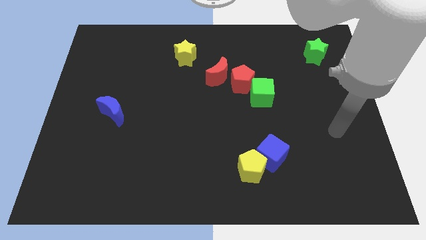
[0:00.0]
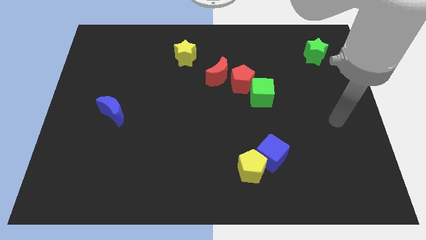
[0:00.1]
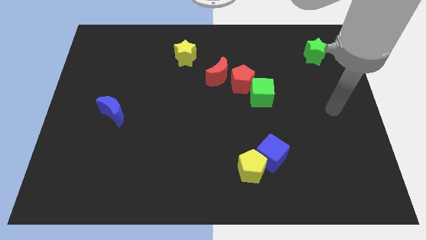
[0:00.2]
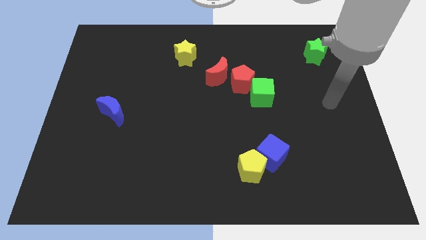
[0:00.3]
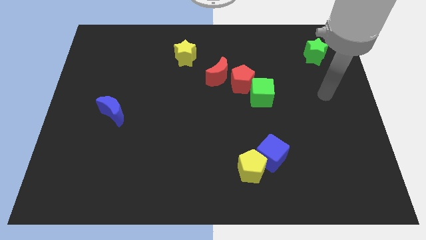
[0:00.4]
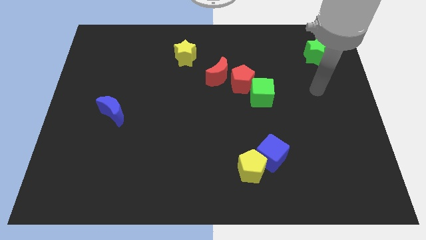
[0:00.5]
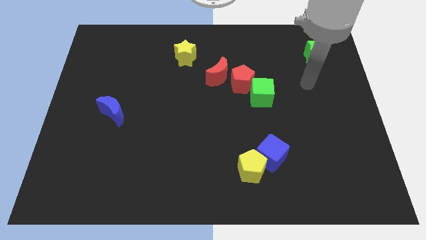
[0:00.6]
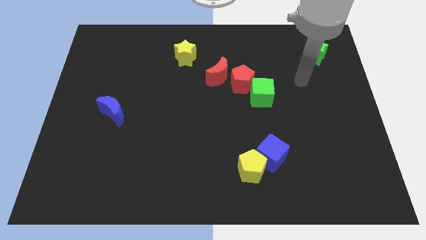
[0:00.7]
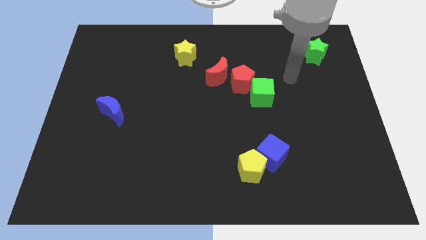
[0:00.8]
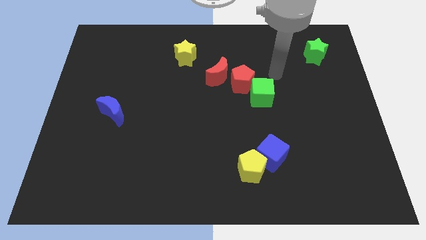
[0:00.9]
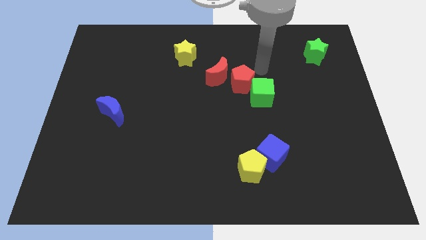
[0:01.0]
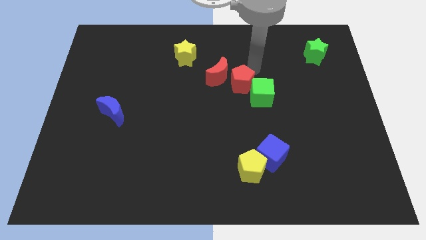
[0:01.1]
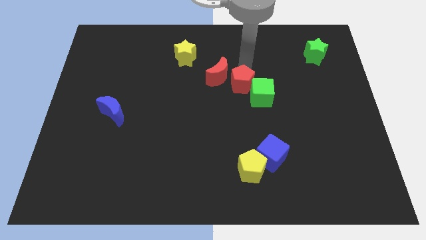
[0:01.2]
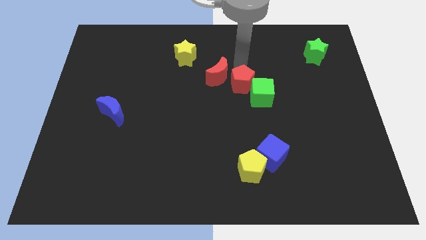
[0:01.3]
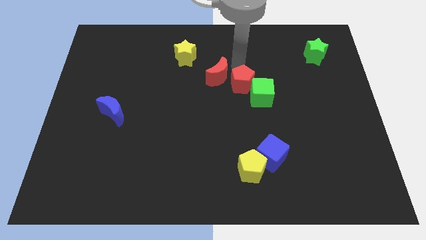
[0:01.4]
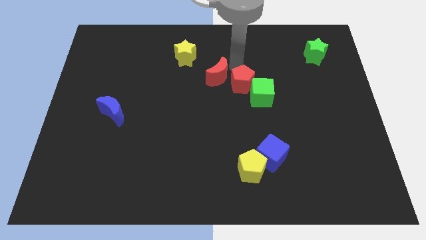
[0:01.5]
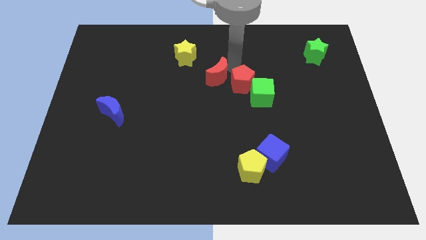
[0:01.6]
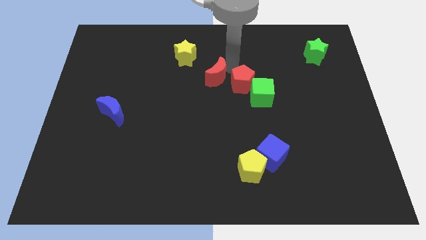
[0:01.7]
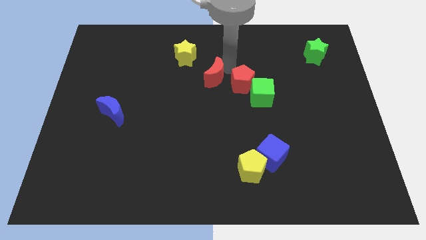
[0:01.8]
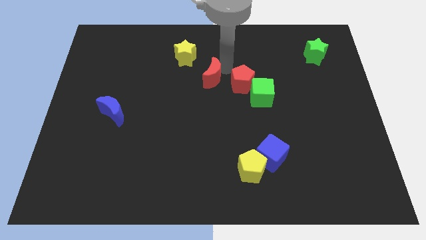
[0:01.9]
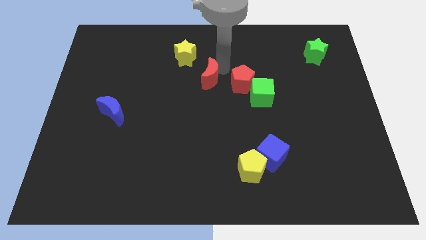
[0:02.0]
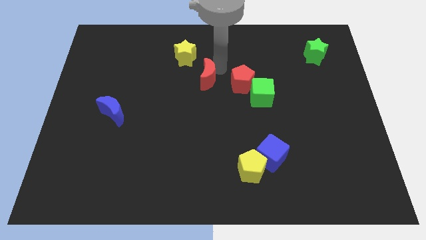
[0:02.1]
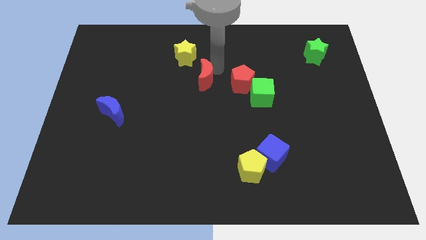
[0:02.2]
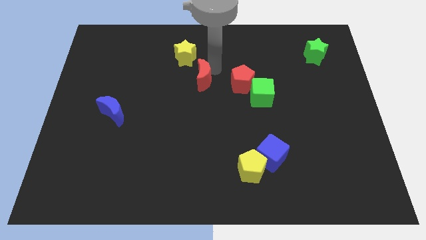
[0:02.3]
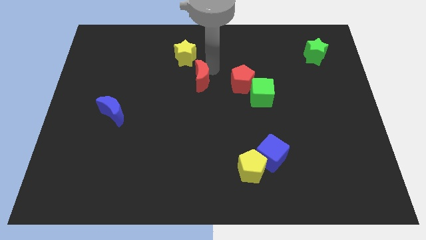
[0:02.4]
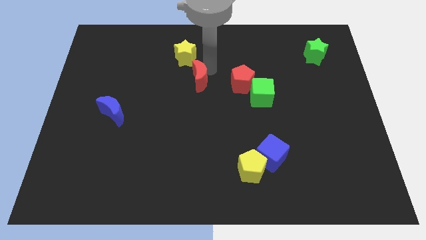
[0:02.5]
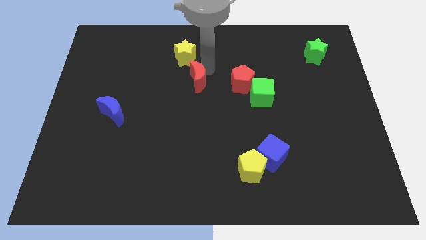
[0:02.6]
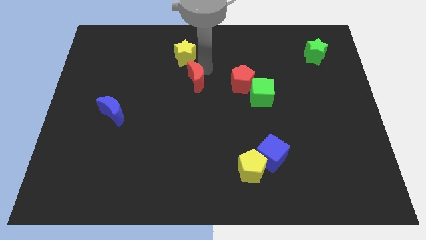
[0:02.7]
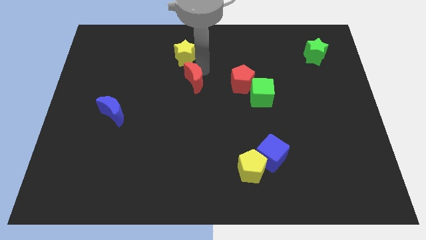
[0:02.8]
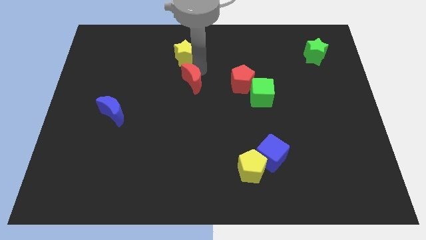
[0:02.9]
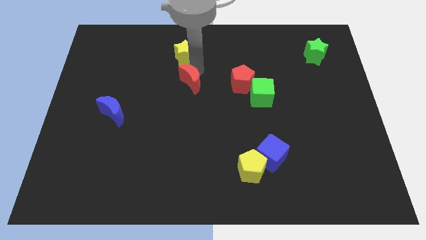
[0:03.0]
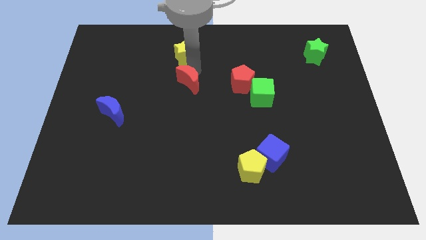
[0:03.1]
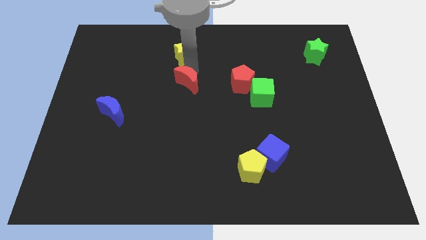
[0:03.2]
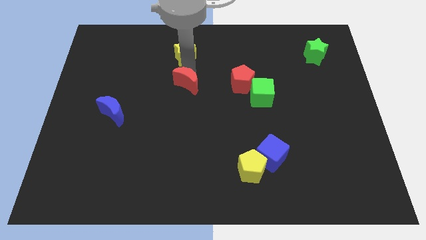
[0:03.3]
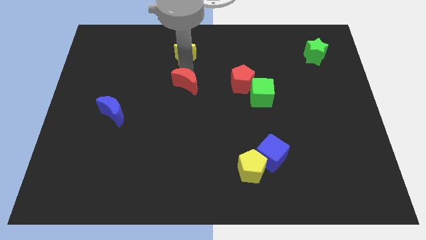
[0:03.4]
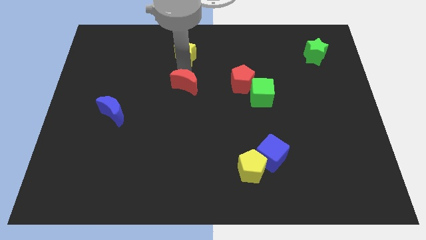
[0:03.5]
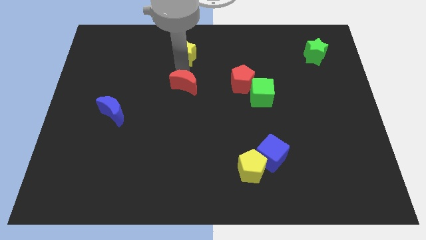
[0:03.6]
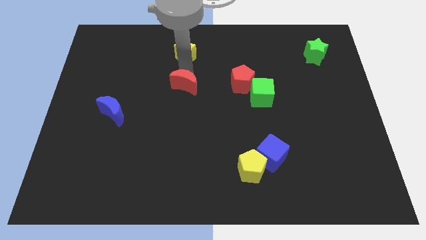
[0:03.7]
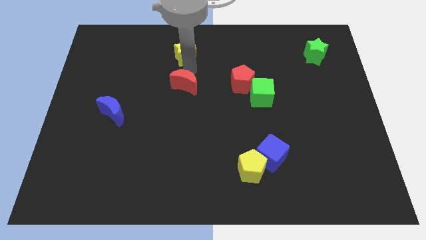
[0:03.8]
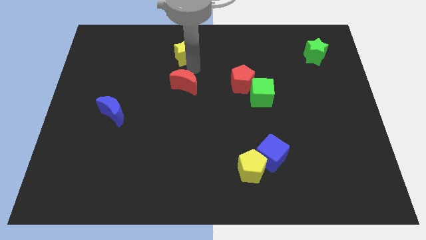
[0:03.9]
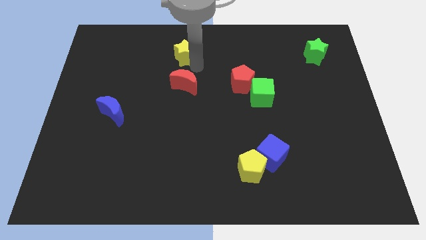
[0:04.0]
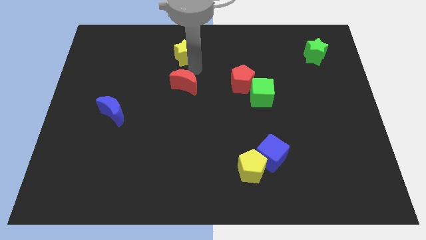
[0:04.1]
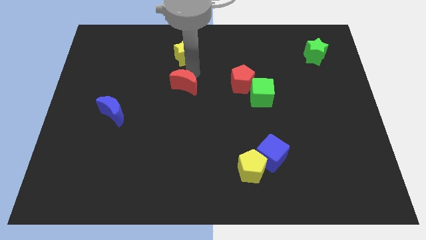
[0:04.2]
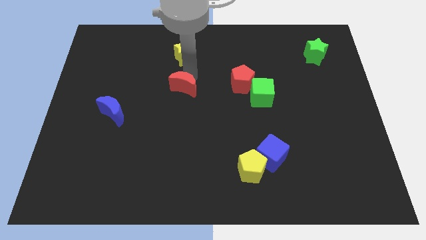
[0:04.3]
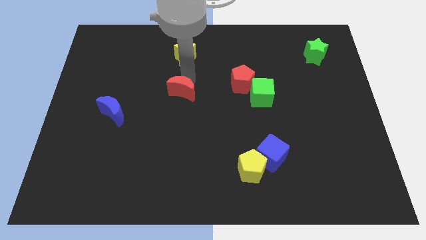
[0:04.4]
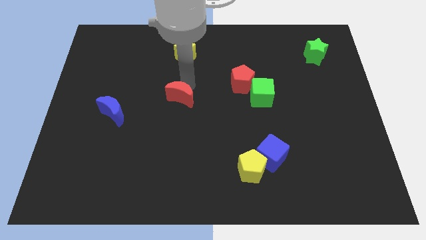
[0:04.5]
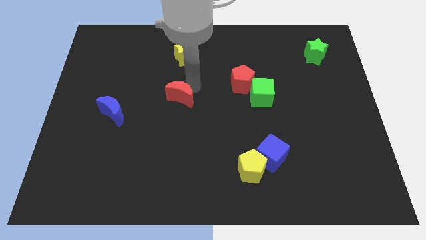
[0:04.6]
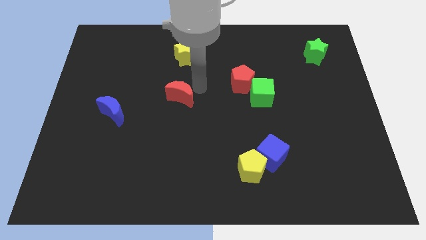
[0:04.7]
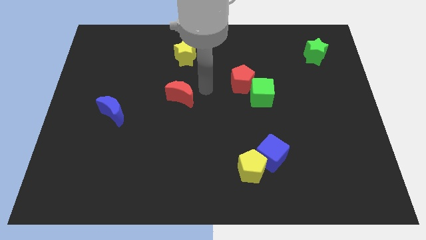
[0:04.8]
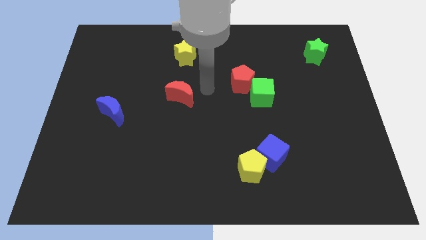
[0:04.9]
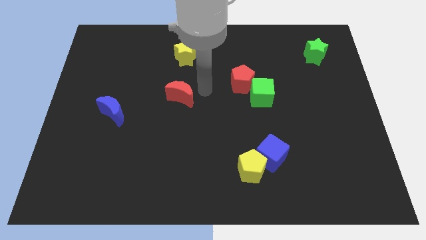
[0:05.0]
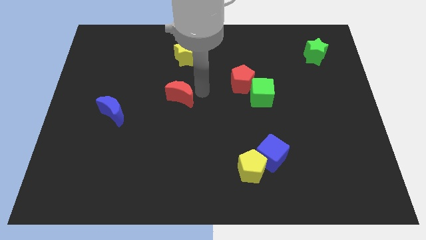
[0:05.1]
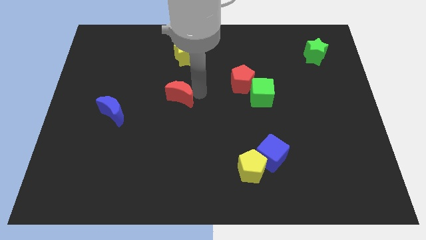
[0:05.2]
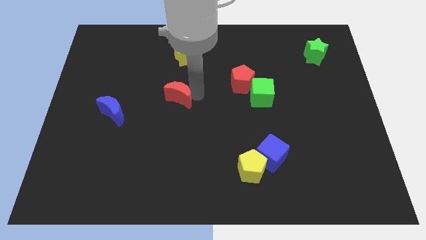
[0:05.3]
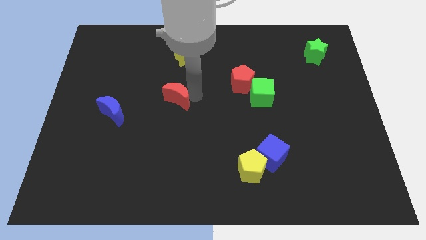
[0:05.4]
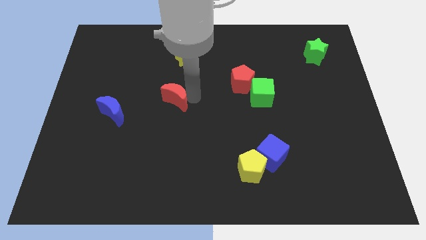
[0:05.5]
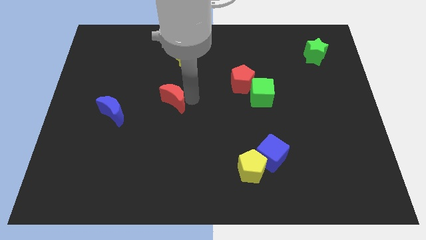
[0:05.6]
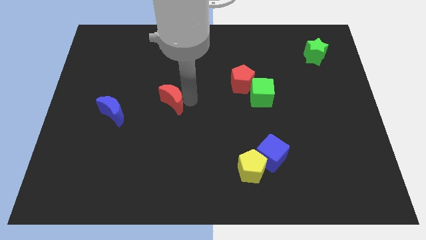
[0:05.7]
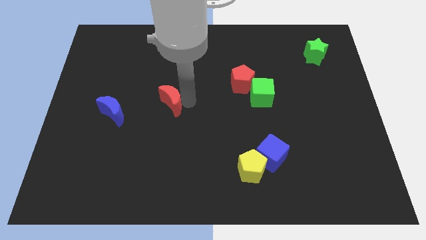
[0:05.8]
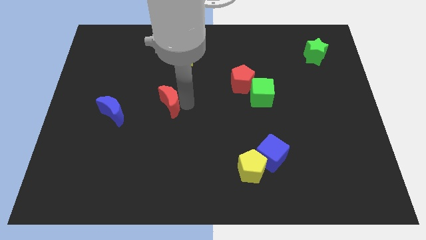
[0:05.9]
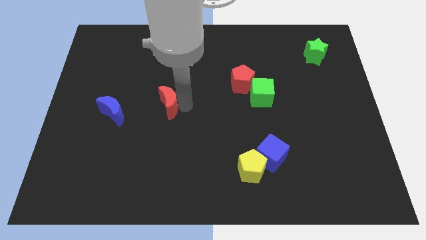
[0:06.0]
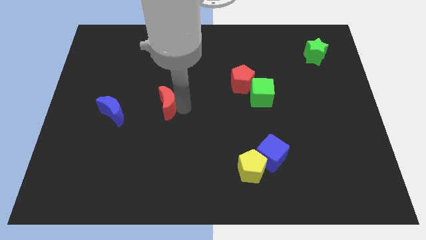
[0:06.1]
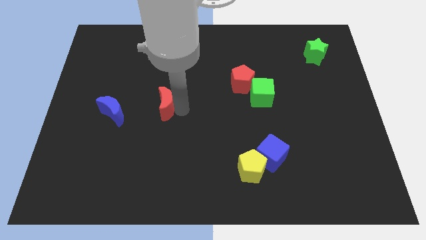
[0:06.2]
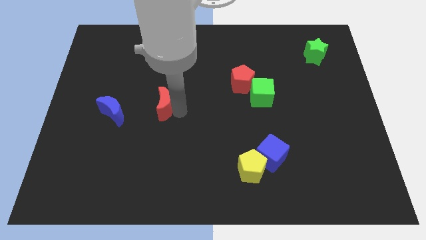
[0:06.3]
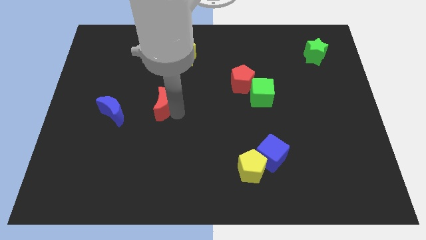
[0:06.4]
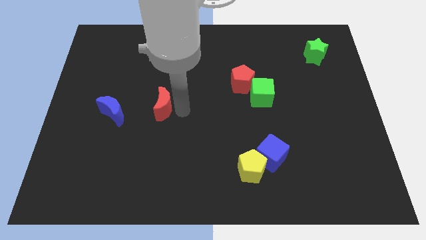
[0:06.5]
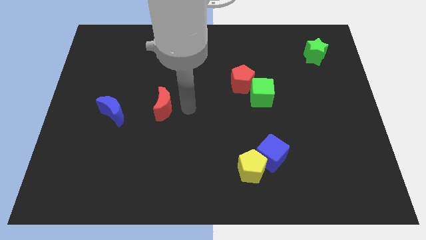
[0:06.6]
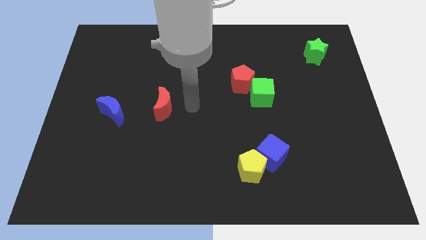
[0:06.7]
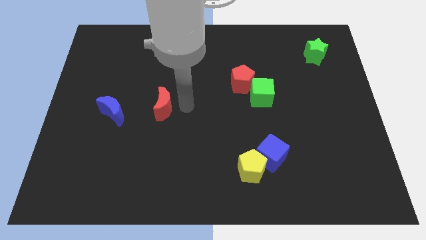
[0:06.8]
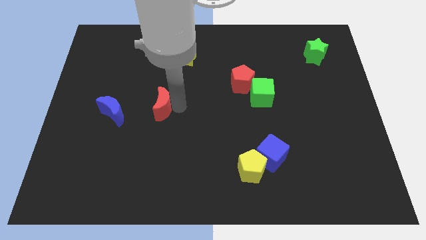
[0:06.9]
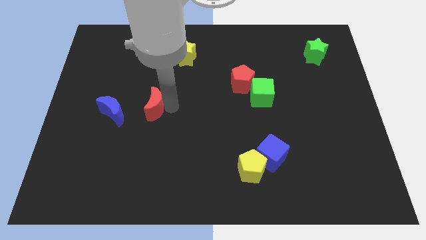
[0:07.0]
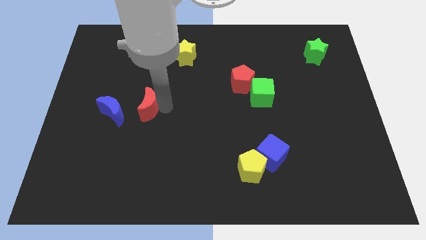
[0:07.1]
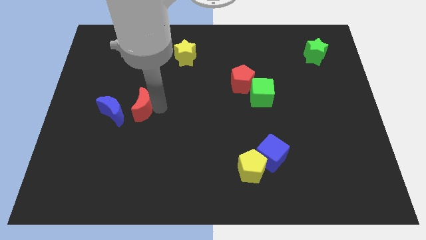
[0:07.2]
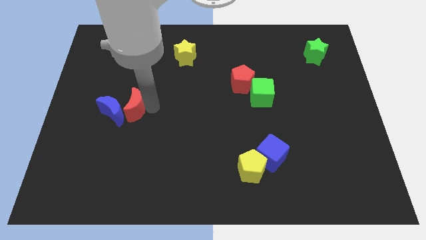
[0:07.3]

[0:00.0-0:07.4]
put the red moon towards the blue moon
